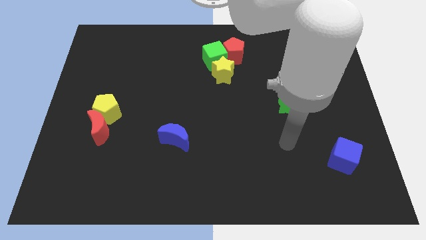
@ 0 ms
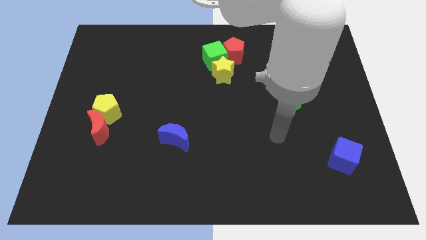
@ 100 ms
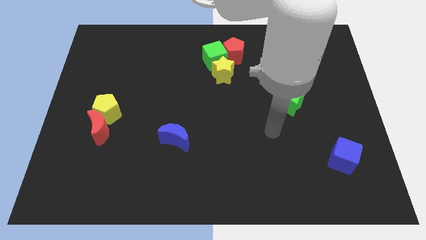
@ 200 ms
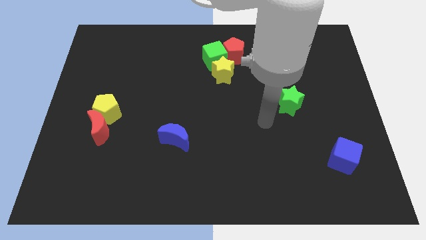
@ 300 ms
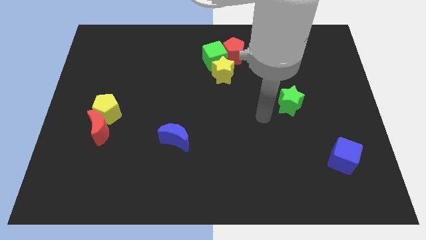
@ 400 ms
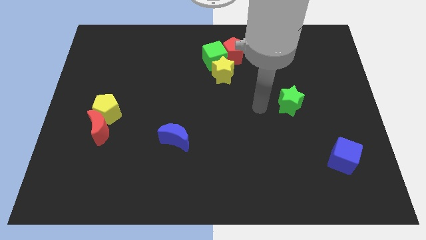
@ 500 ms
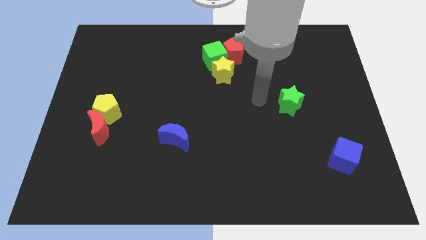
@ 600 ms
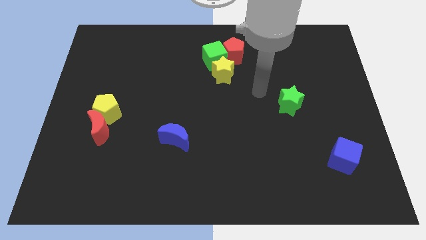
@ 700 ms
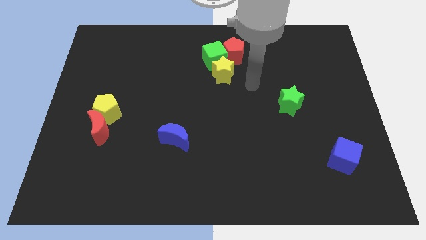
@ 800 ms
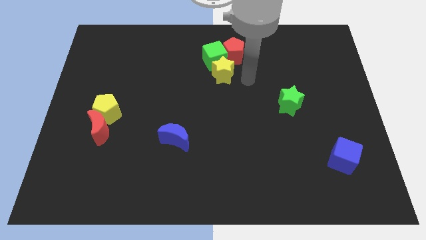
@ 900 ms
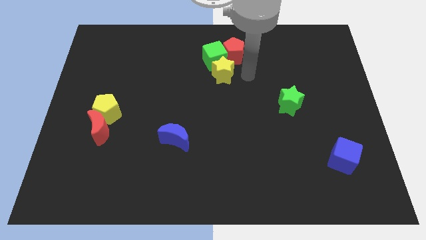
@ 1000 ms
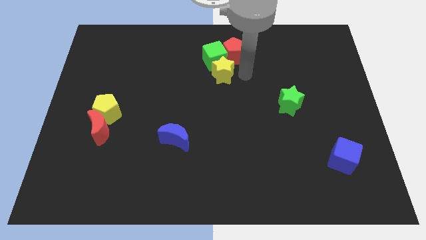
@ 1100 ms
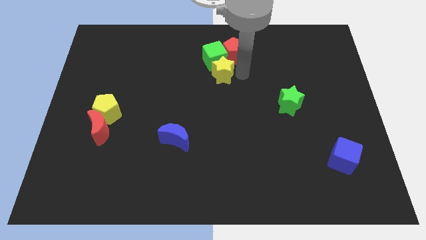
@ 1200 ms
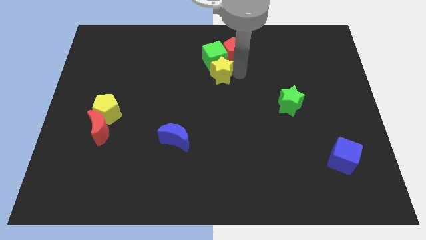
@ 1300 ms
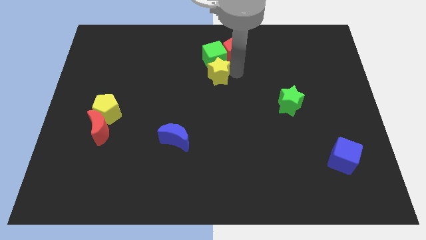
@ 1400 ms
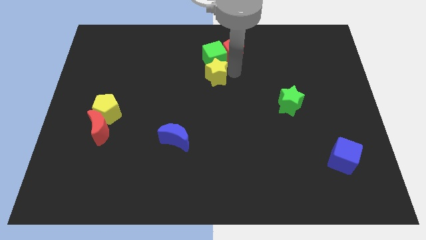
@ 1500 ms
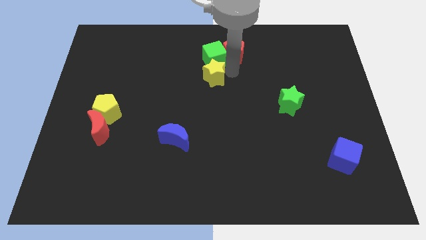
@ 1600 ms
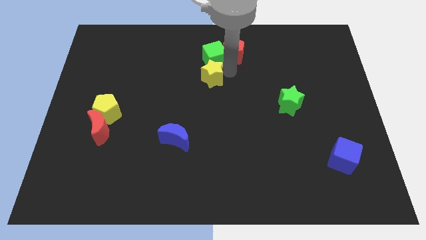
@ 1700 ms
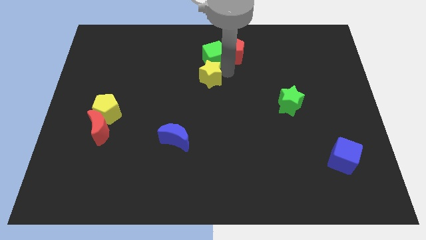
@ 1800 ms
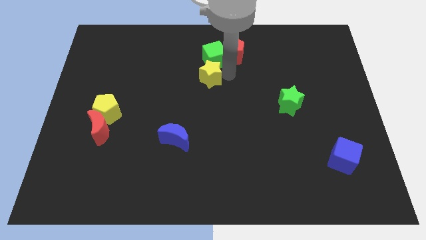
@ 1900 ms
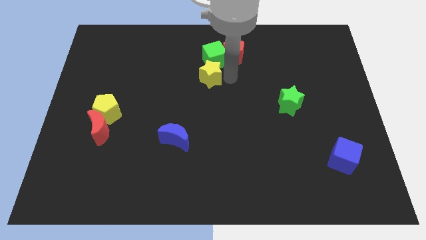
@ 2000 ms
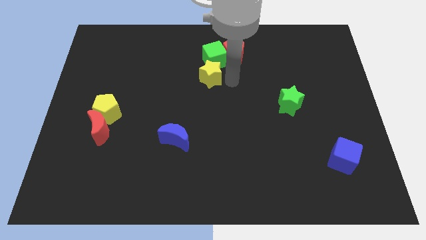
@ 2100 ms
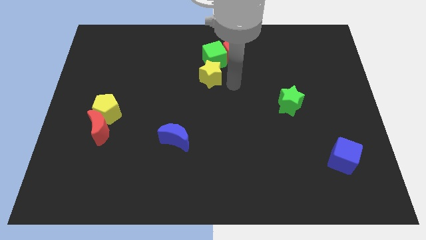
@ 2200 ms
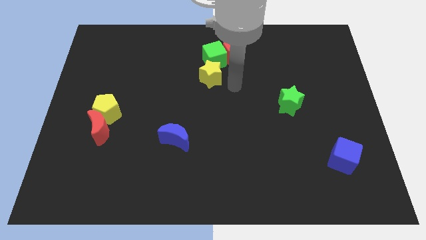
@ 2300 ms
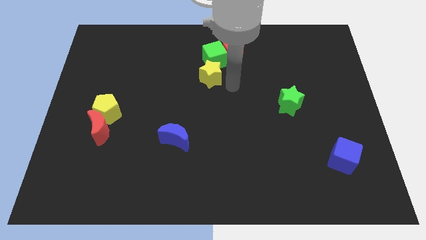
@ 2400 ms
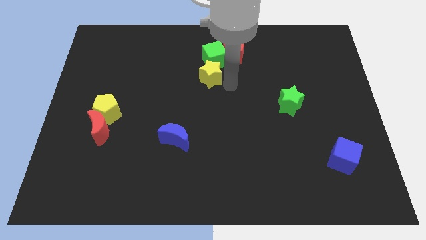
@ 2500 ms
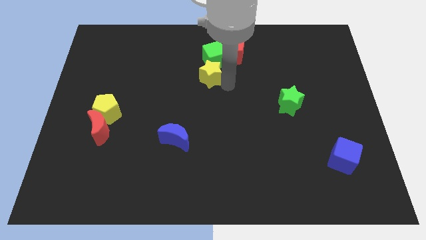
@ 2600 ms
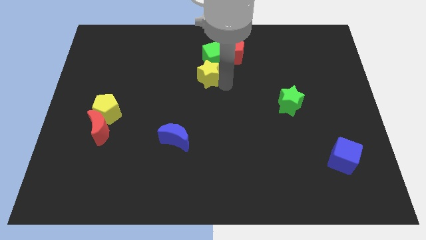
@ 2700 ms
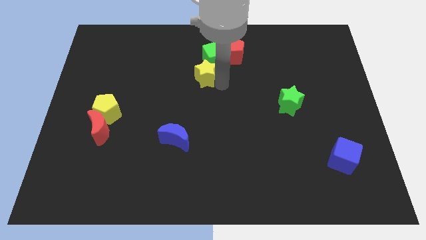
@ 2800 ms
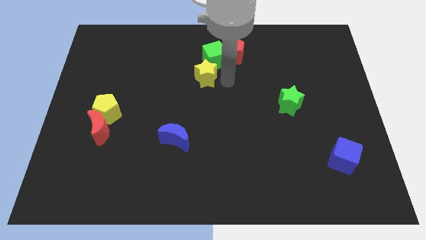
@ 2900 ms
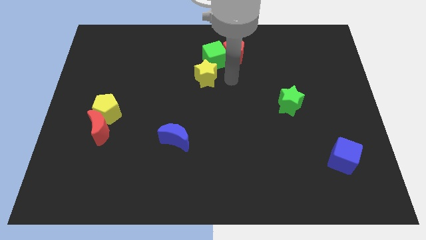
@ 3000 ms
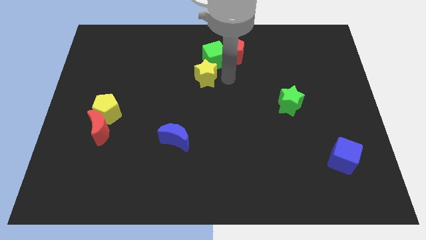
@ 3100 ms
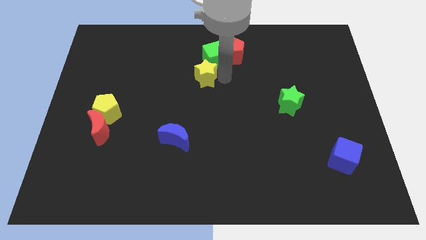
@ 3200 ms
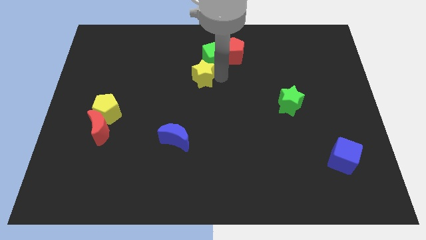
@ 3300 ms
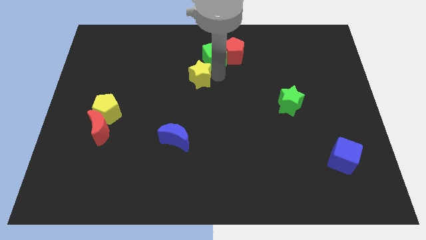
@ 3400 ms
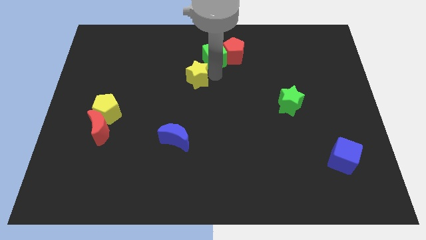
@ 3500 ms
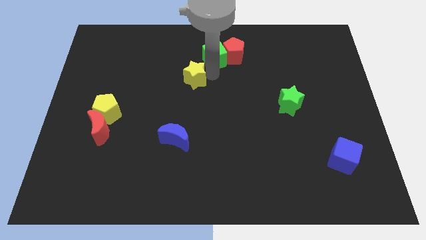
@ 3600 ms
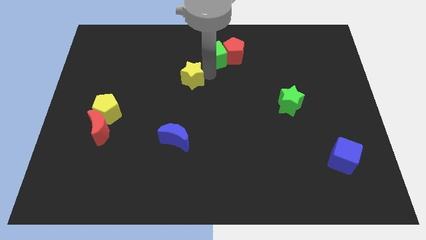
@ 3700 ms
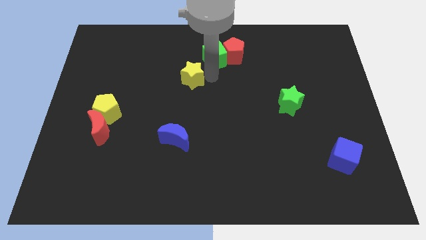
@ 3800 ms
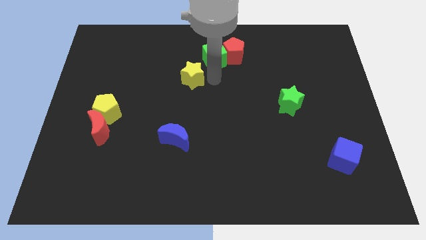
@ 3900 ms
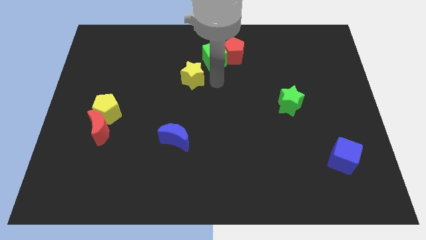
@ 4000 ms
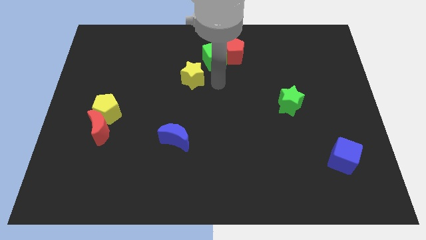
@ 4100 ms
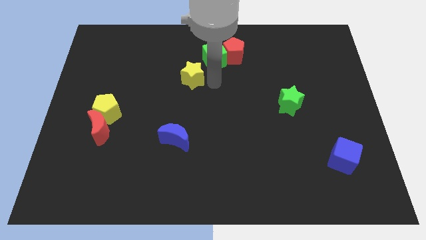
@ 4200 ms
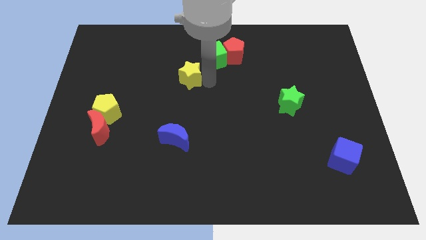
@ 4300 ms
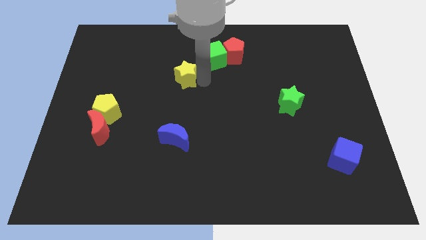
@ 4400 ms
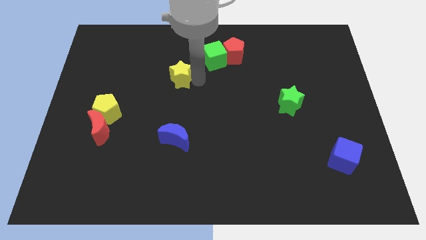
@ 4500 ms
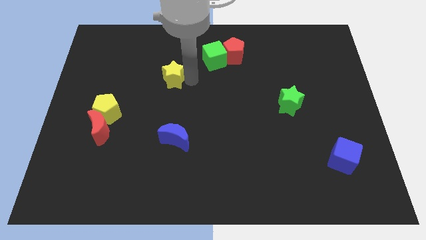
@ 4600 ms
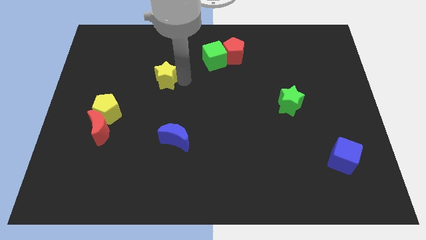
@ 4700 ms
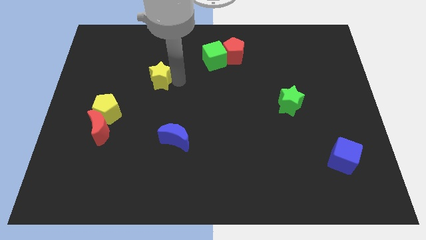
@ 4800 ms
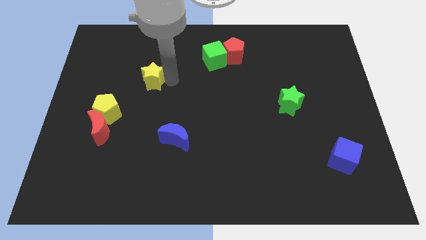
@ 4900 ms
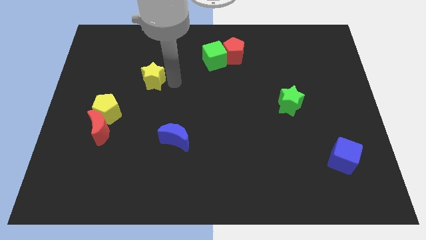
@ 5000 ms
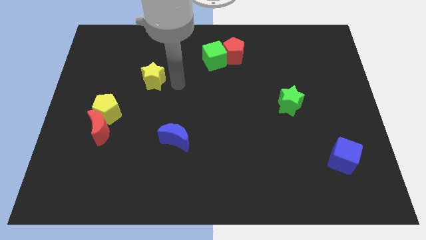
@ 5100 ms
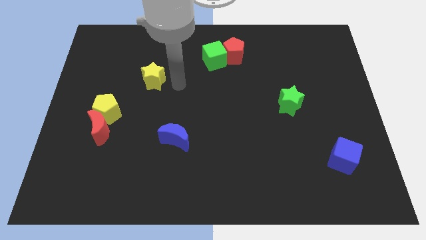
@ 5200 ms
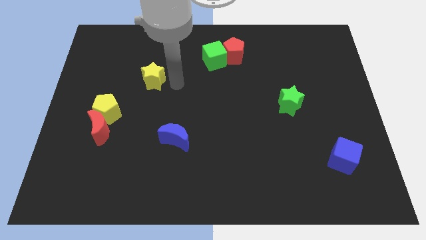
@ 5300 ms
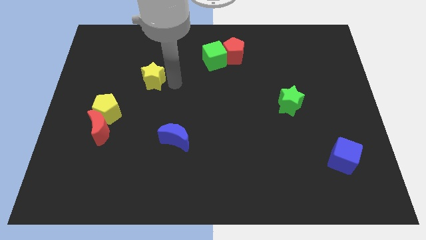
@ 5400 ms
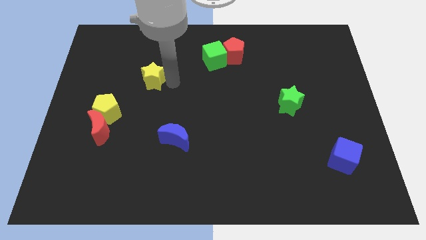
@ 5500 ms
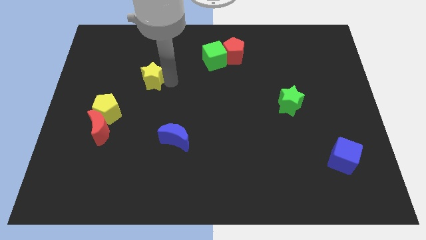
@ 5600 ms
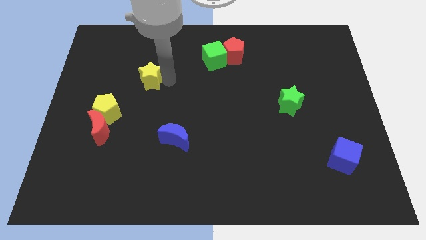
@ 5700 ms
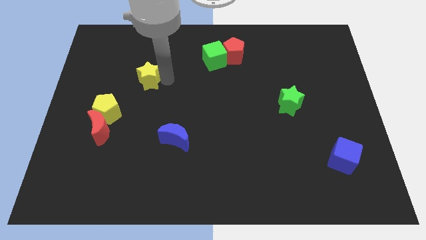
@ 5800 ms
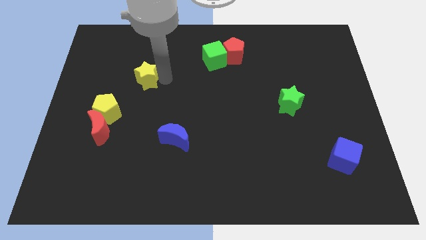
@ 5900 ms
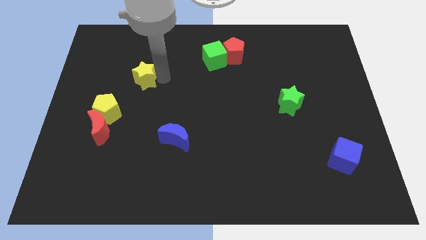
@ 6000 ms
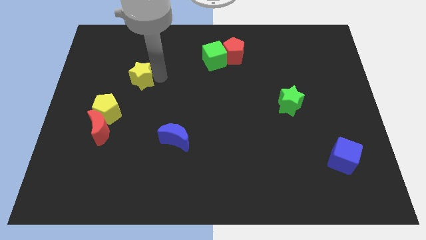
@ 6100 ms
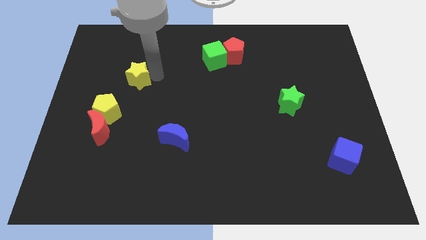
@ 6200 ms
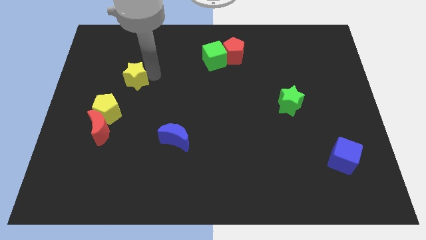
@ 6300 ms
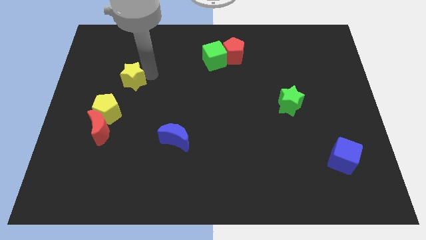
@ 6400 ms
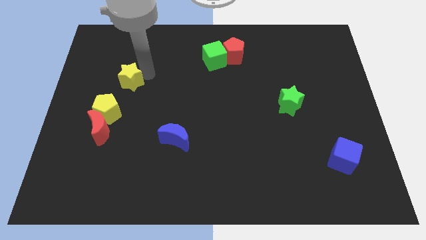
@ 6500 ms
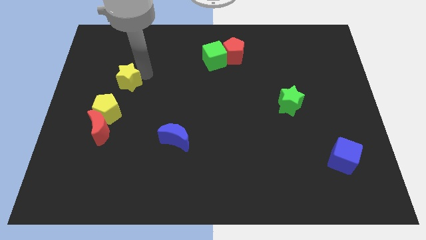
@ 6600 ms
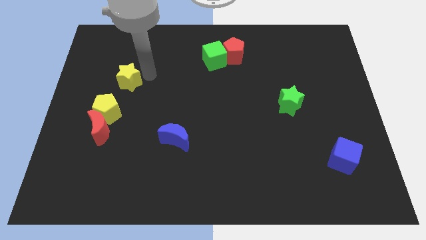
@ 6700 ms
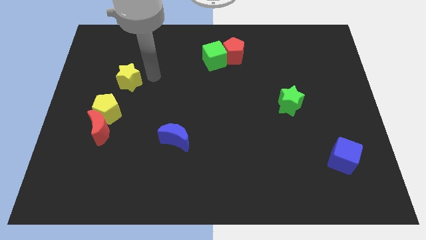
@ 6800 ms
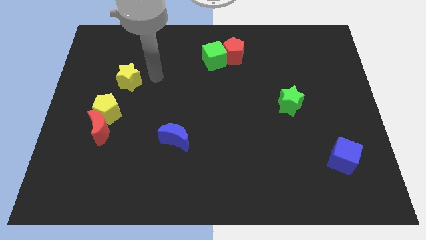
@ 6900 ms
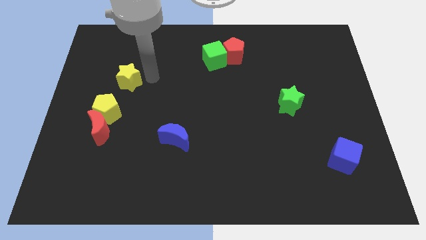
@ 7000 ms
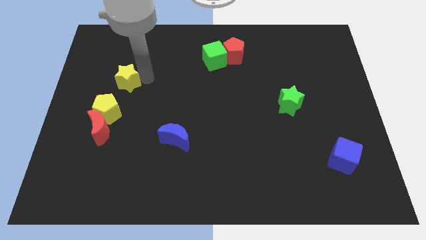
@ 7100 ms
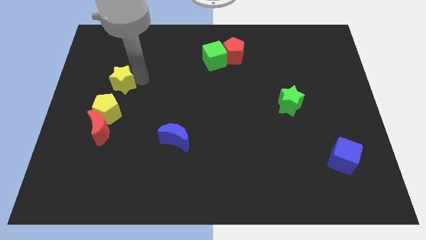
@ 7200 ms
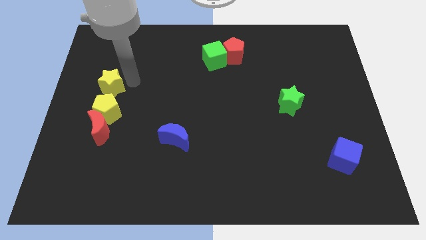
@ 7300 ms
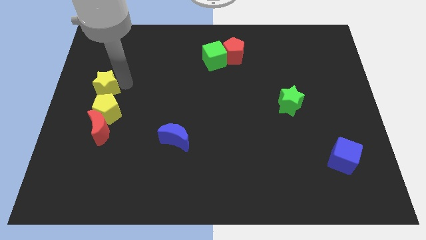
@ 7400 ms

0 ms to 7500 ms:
slide the yellow star to the left side of the board
